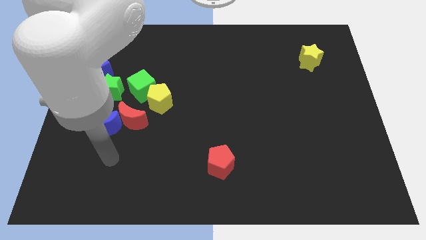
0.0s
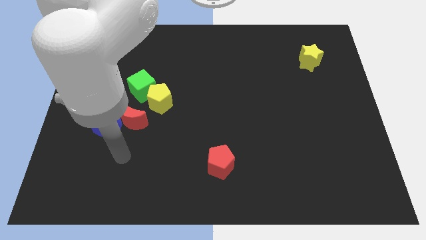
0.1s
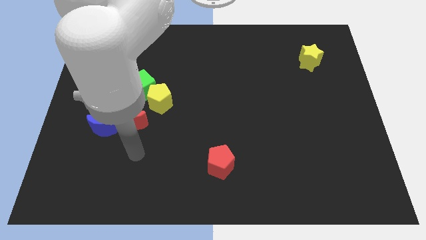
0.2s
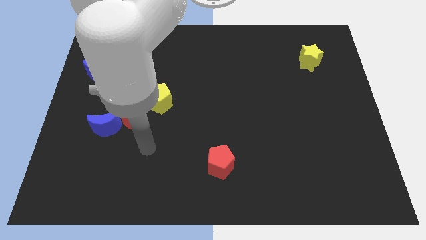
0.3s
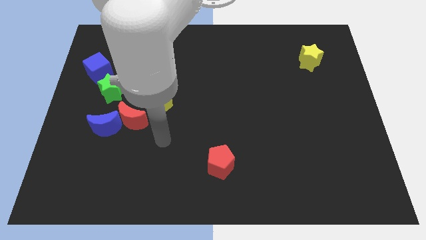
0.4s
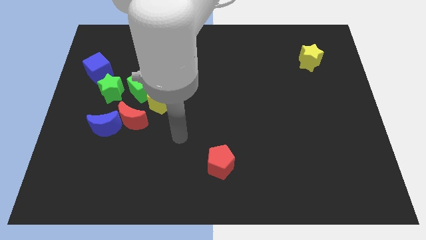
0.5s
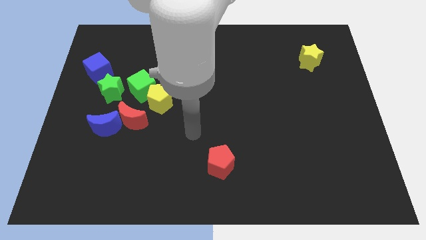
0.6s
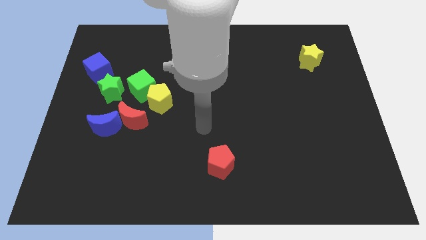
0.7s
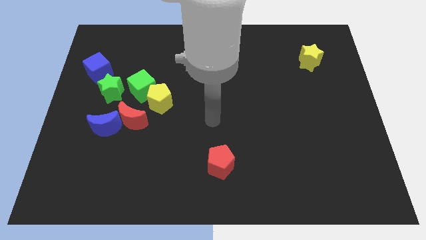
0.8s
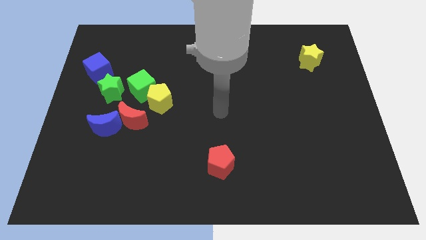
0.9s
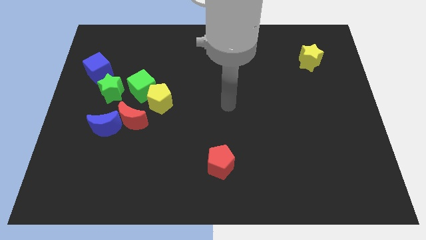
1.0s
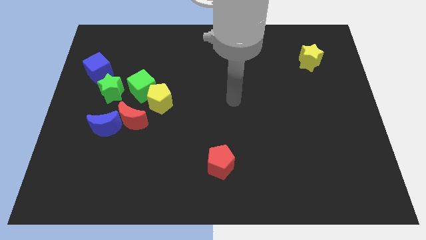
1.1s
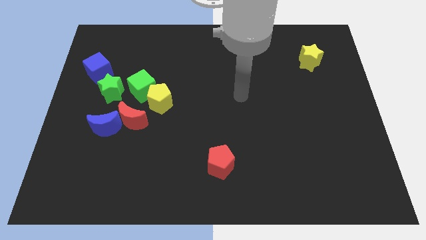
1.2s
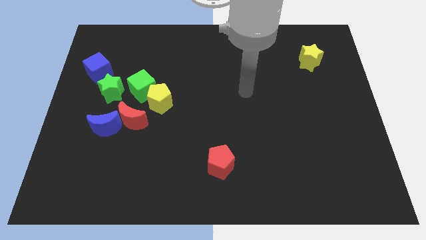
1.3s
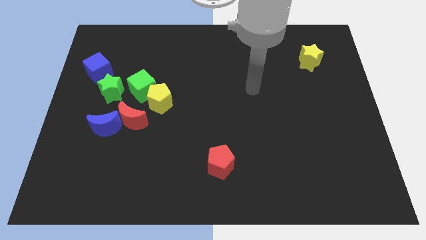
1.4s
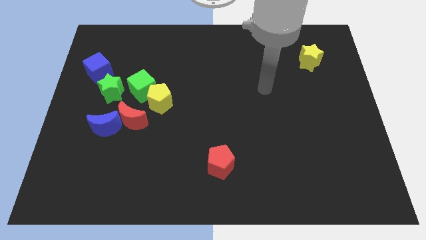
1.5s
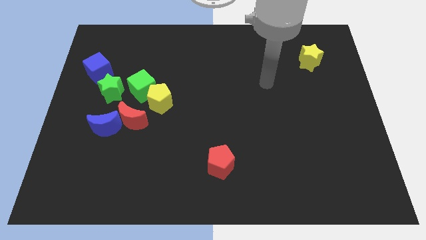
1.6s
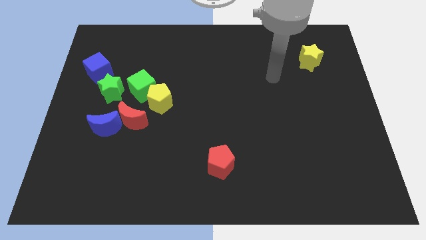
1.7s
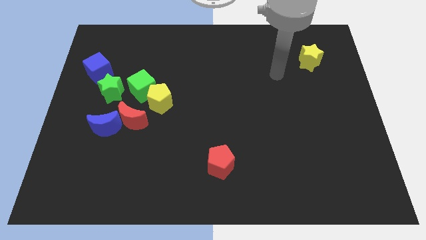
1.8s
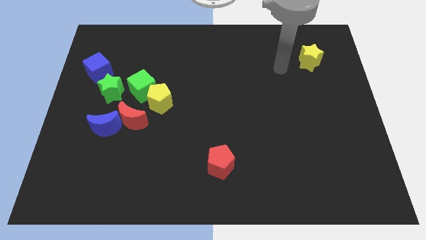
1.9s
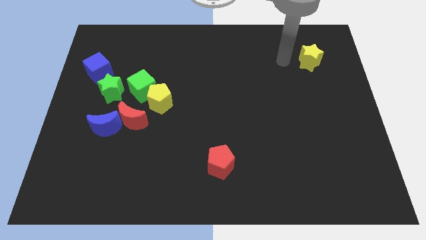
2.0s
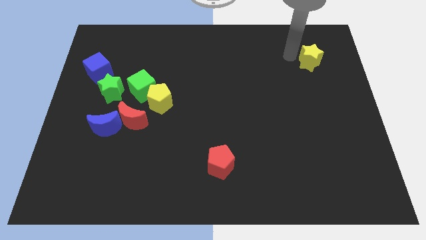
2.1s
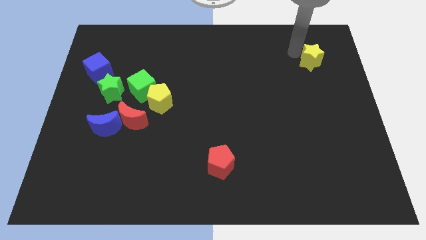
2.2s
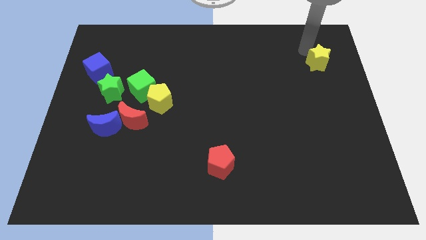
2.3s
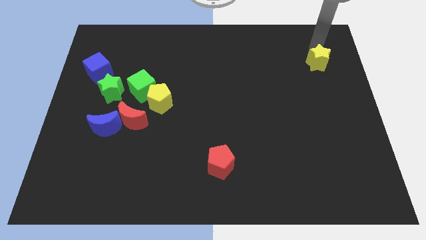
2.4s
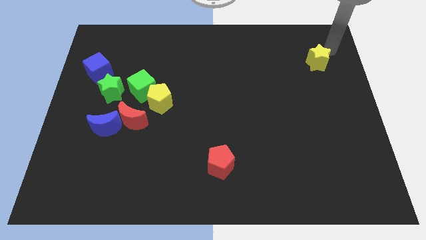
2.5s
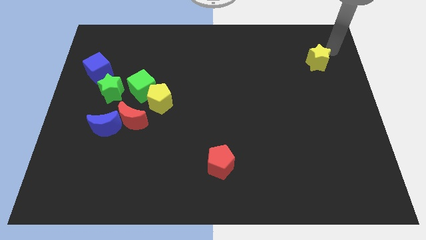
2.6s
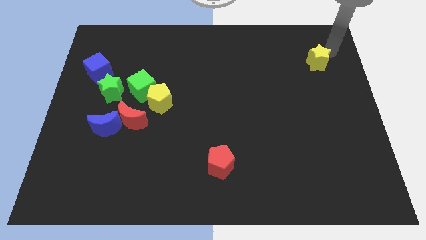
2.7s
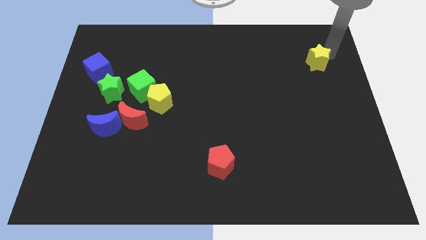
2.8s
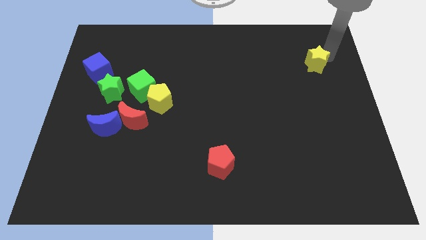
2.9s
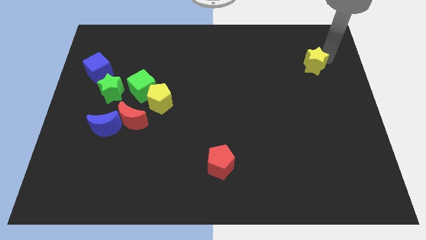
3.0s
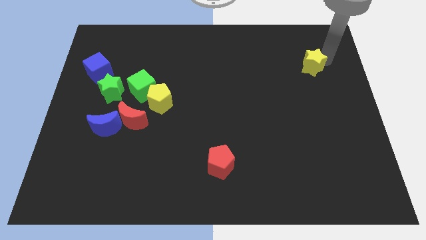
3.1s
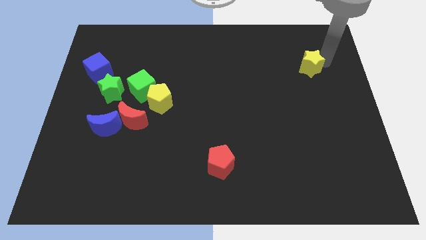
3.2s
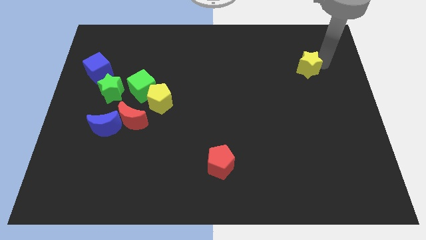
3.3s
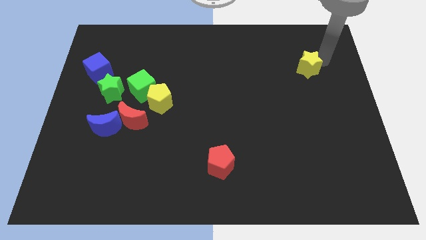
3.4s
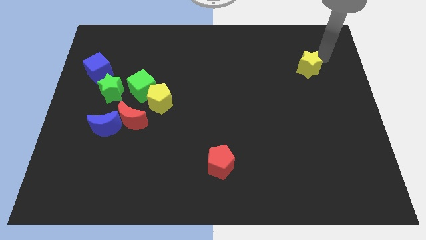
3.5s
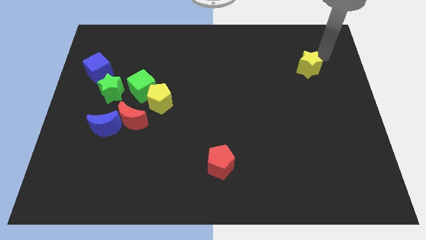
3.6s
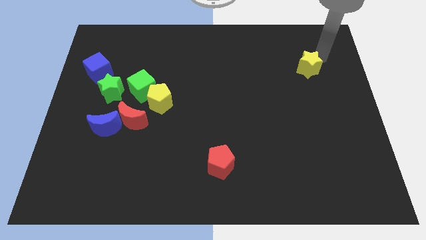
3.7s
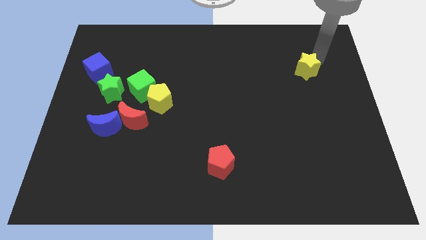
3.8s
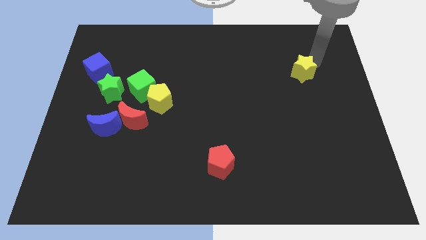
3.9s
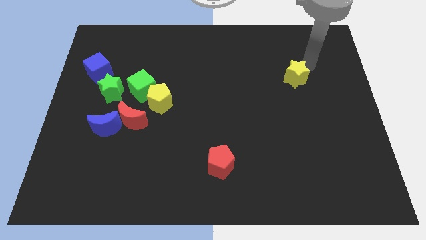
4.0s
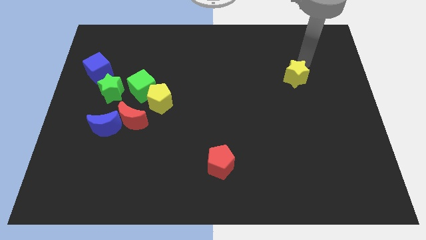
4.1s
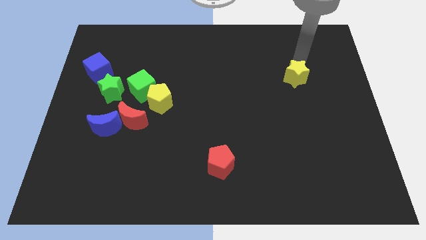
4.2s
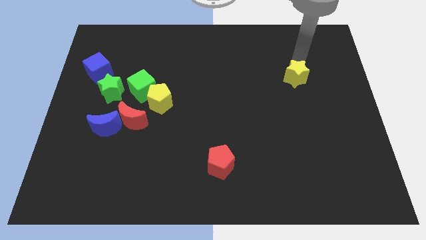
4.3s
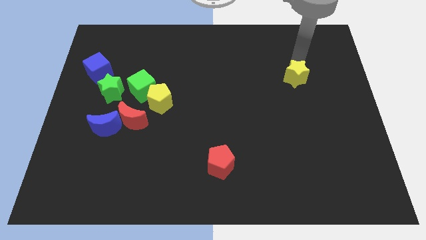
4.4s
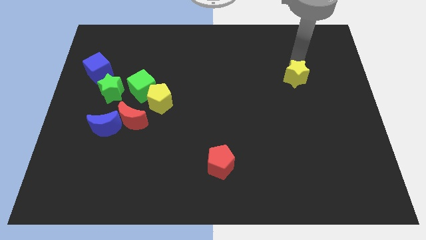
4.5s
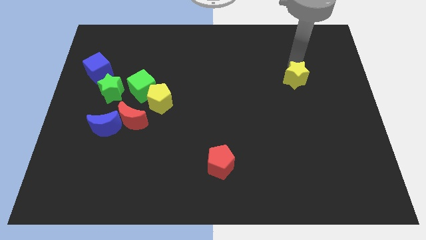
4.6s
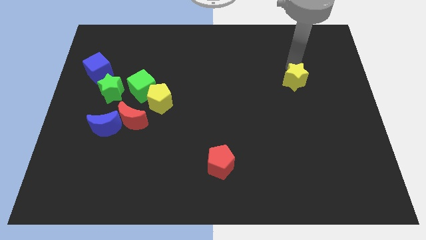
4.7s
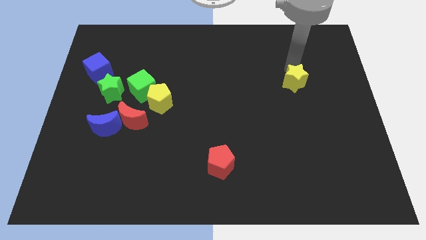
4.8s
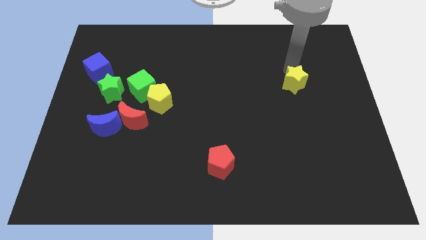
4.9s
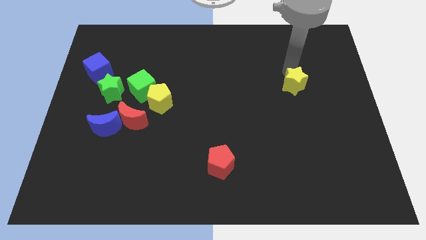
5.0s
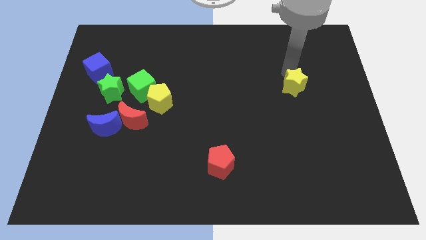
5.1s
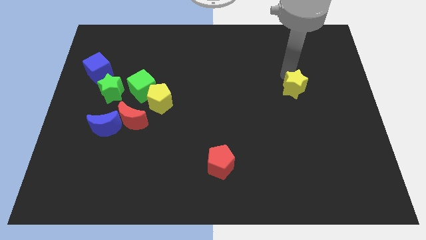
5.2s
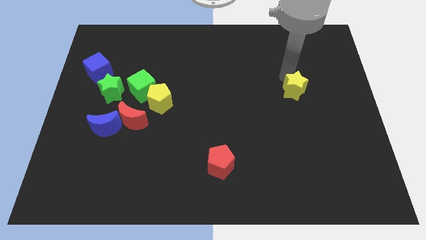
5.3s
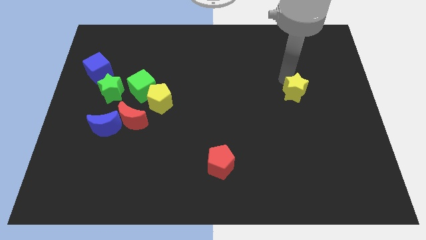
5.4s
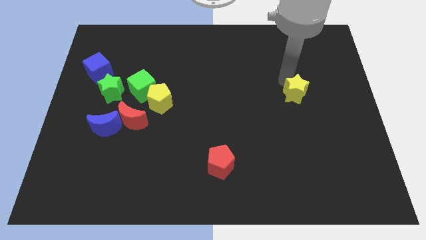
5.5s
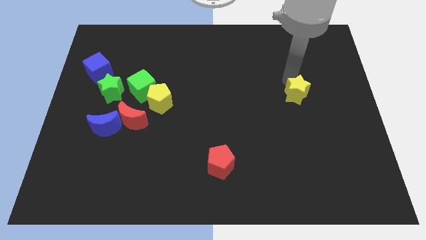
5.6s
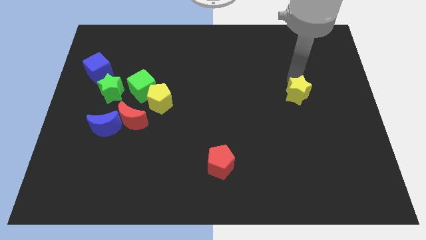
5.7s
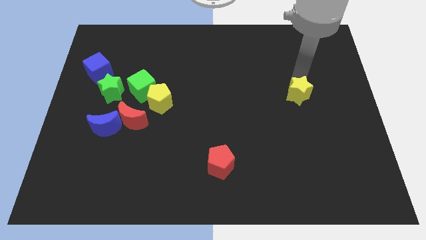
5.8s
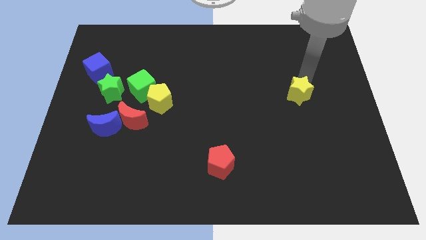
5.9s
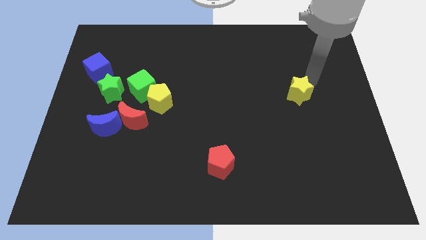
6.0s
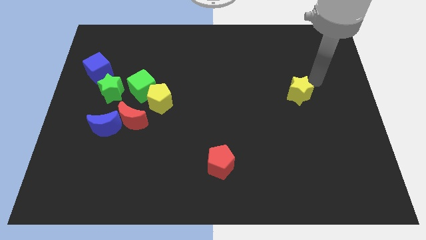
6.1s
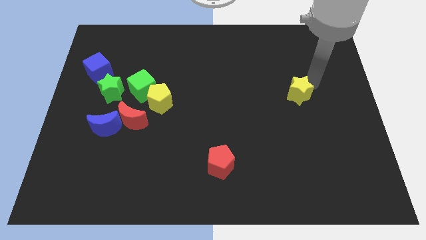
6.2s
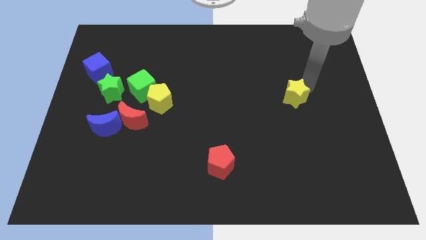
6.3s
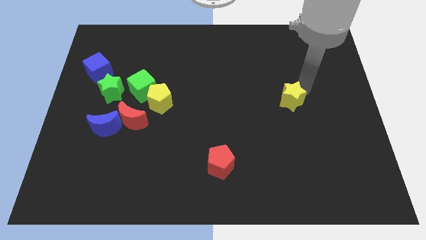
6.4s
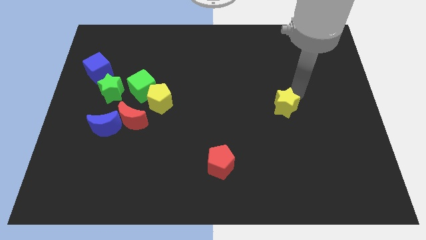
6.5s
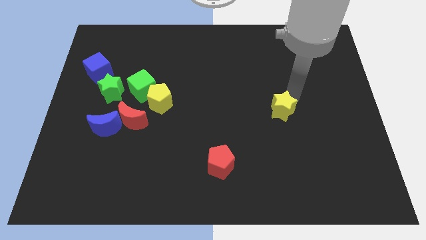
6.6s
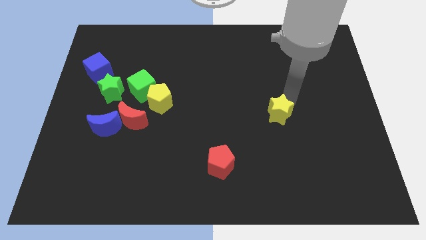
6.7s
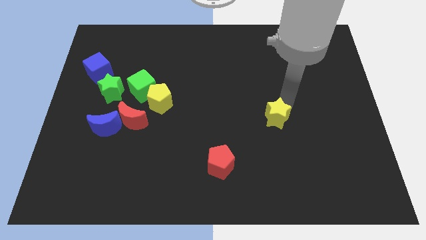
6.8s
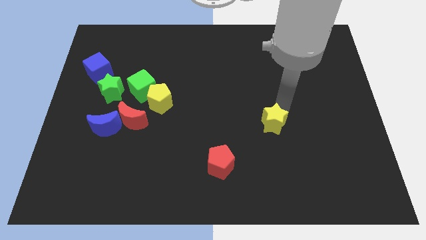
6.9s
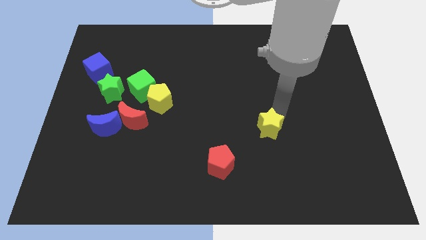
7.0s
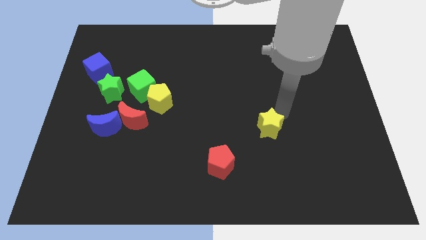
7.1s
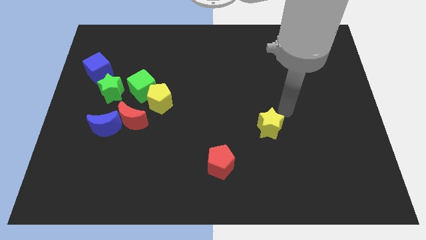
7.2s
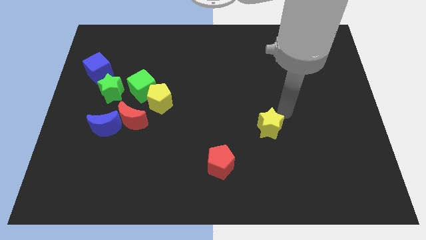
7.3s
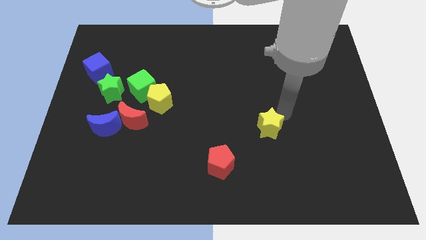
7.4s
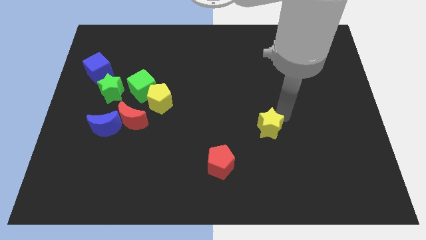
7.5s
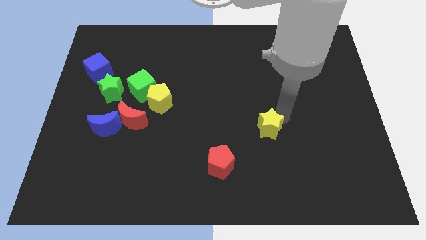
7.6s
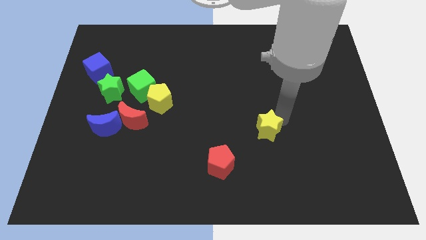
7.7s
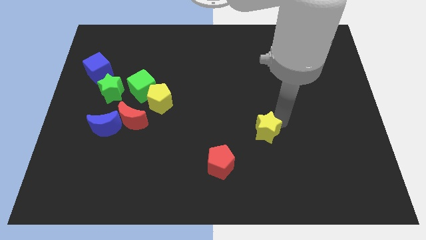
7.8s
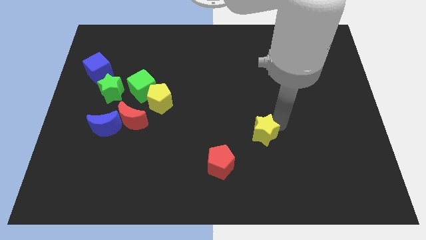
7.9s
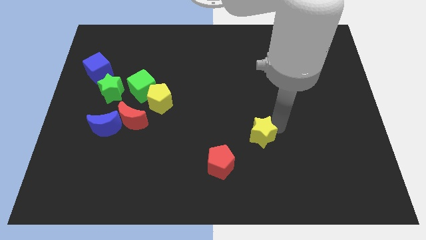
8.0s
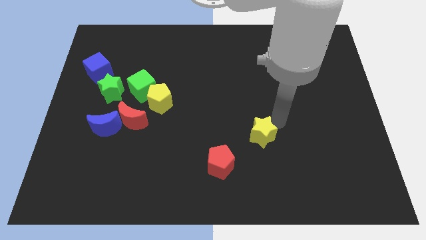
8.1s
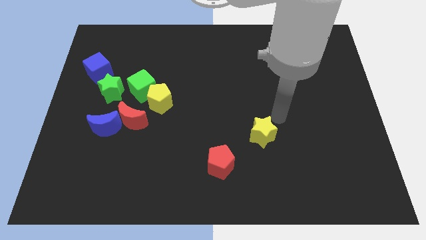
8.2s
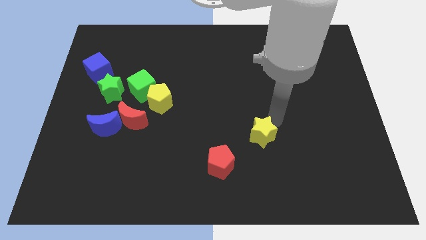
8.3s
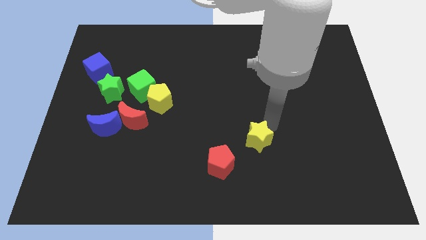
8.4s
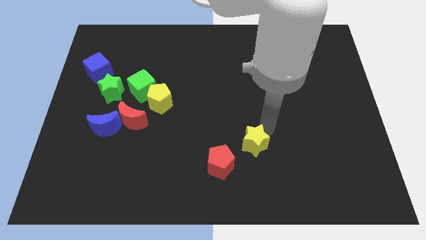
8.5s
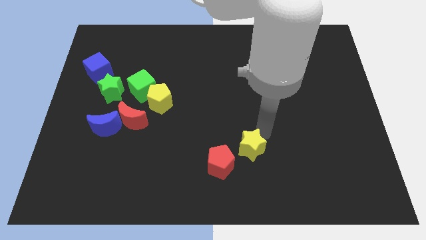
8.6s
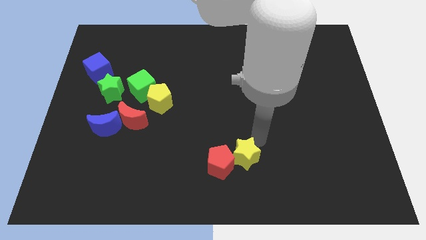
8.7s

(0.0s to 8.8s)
slide the yellow star towards the red pentagon
